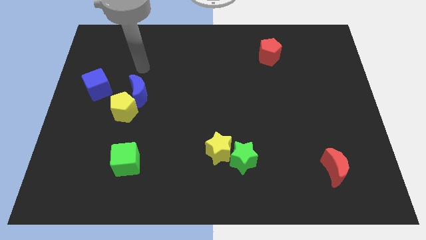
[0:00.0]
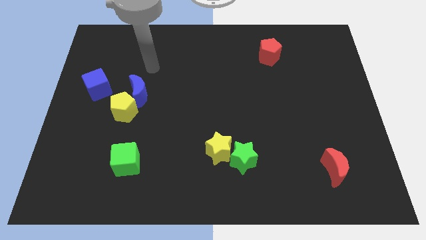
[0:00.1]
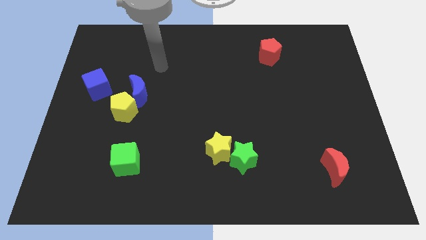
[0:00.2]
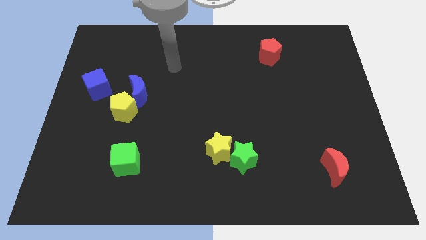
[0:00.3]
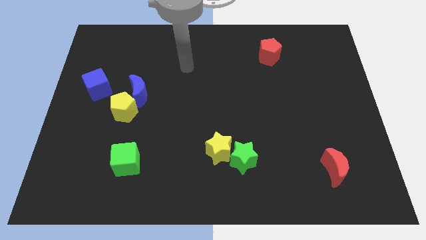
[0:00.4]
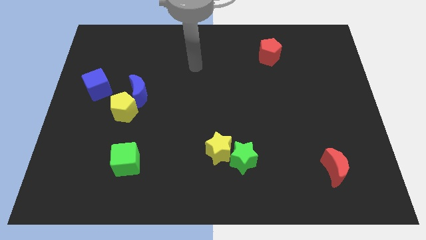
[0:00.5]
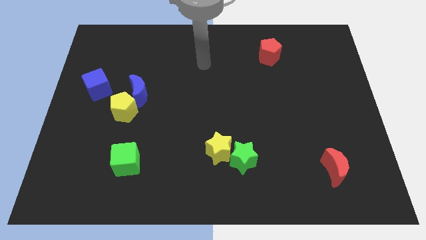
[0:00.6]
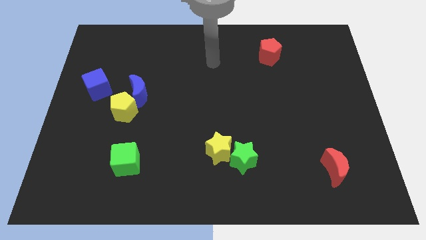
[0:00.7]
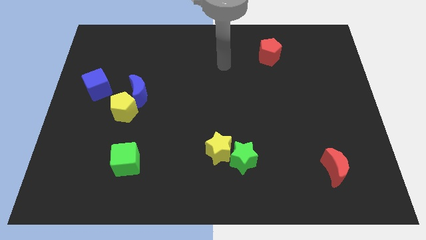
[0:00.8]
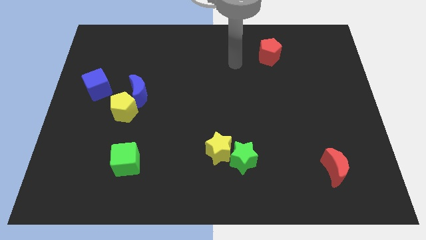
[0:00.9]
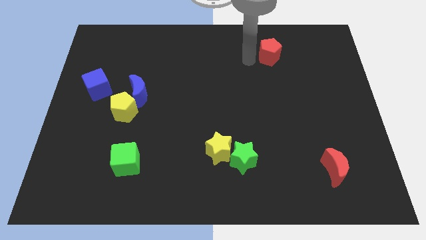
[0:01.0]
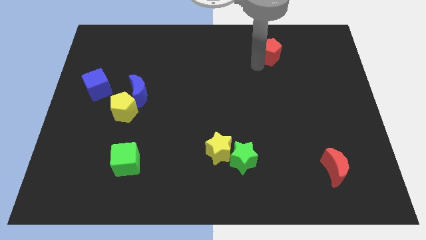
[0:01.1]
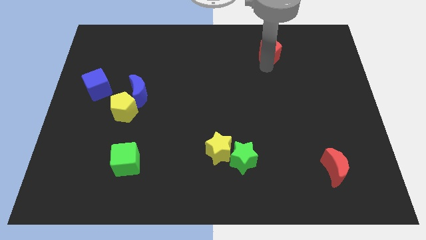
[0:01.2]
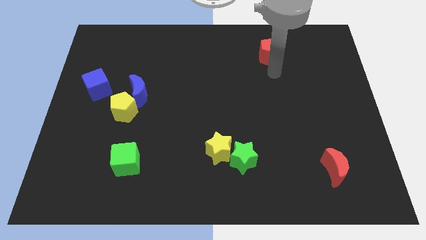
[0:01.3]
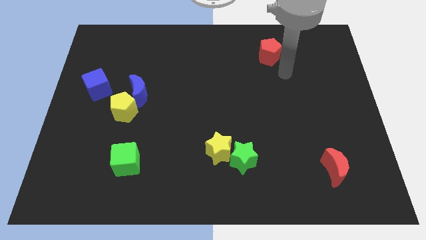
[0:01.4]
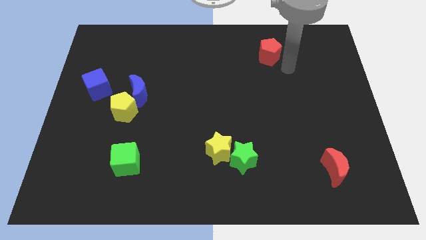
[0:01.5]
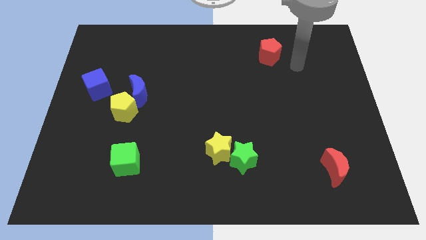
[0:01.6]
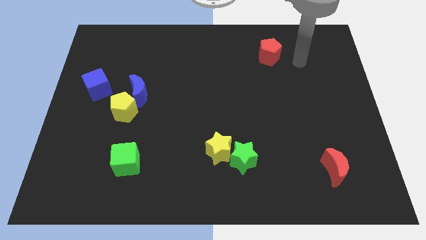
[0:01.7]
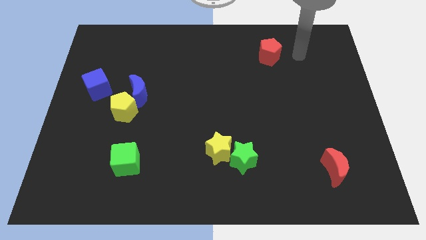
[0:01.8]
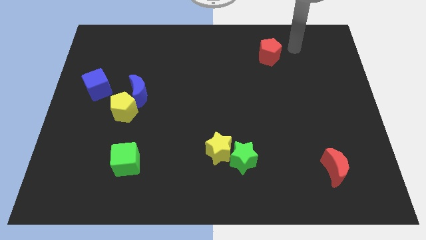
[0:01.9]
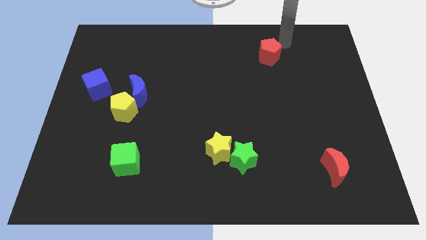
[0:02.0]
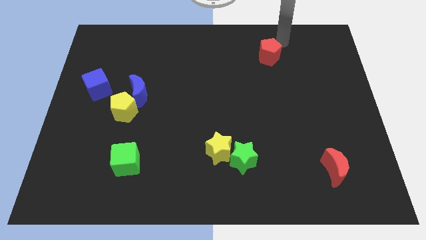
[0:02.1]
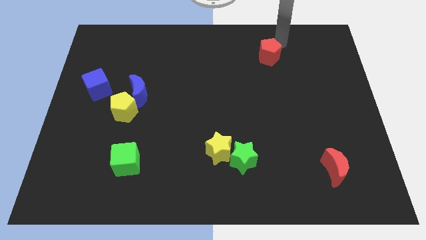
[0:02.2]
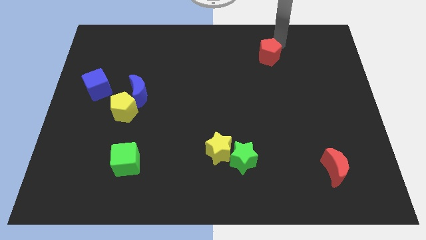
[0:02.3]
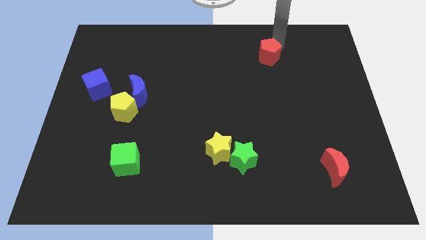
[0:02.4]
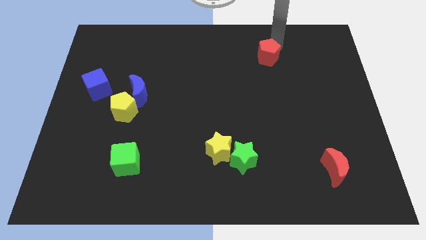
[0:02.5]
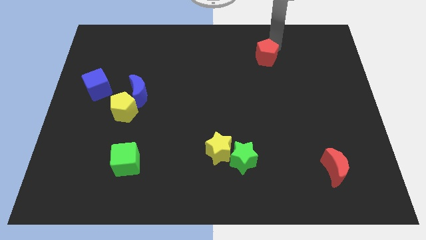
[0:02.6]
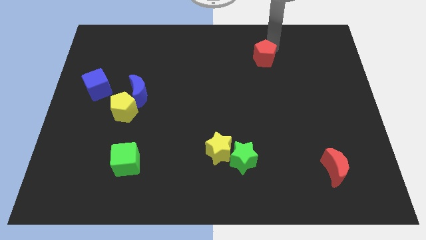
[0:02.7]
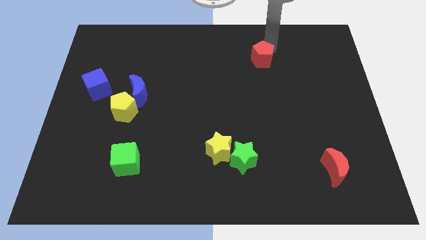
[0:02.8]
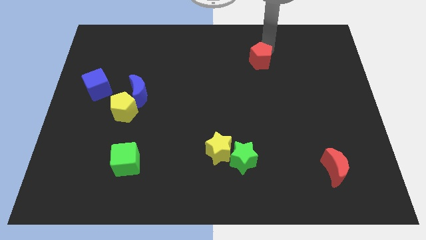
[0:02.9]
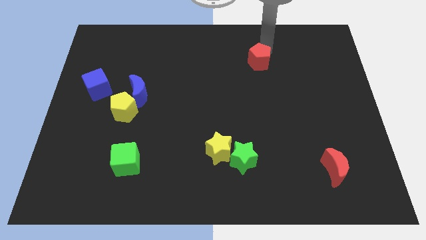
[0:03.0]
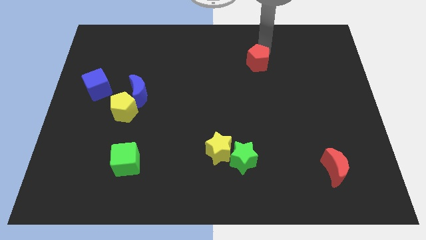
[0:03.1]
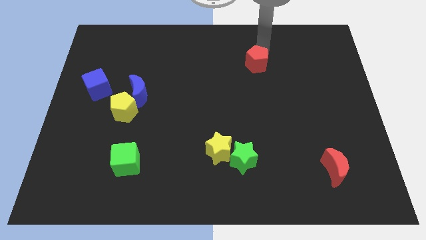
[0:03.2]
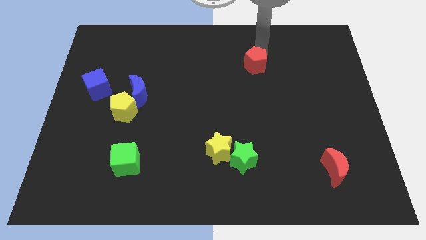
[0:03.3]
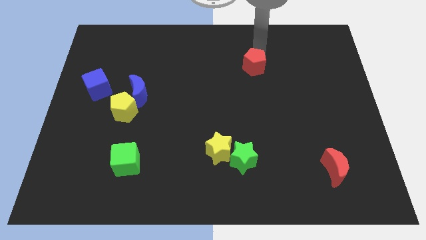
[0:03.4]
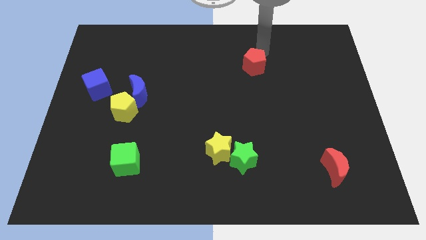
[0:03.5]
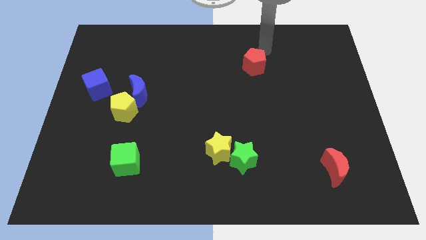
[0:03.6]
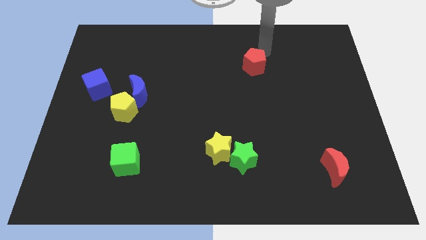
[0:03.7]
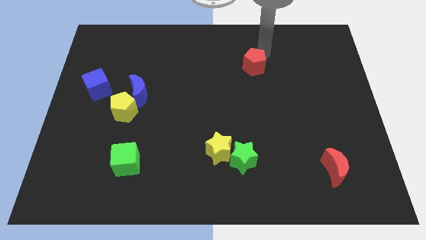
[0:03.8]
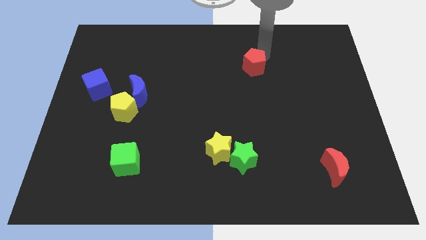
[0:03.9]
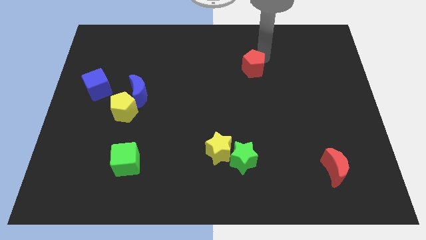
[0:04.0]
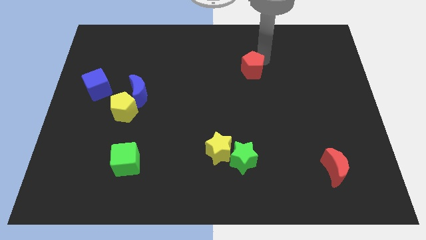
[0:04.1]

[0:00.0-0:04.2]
slightly push the red pentagon downwards and left

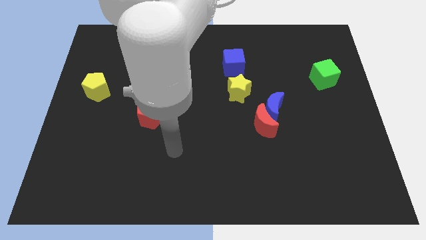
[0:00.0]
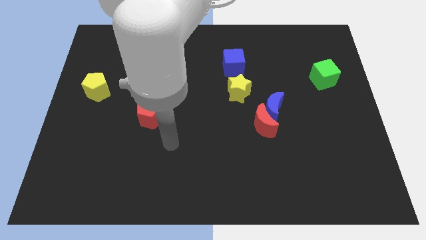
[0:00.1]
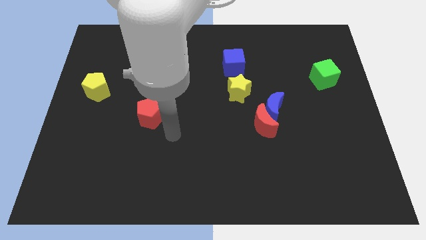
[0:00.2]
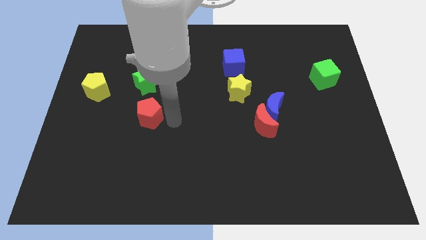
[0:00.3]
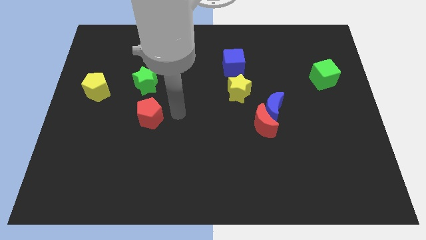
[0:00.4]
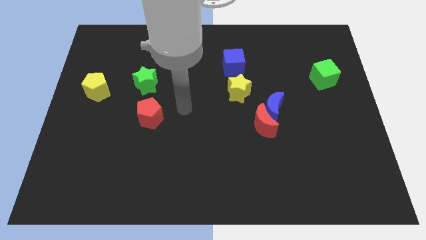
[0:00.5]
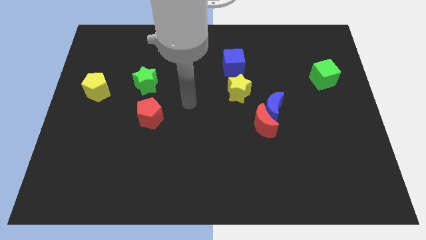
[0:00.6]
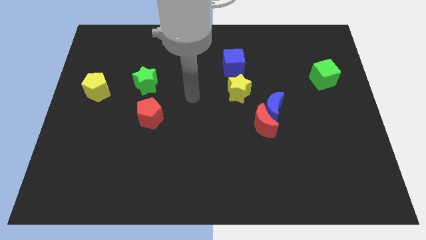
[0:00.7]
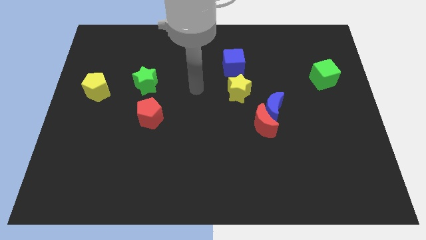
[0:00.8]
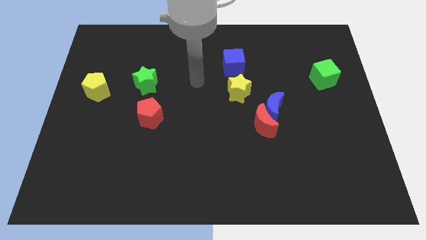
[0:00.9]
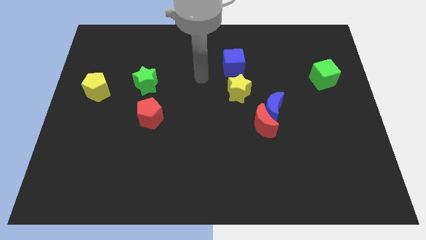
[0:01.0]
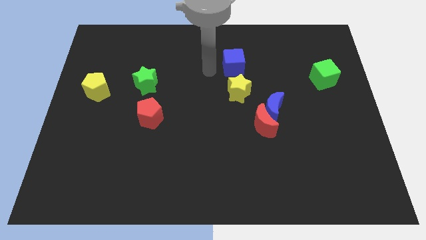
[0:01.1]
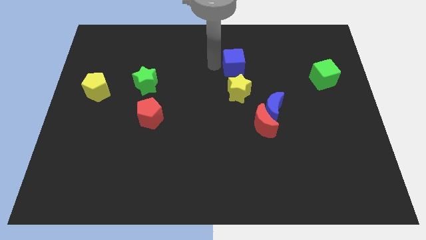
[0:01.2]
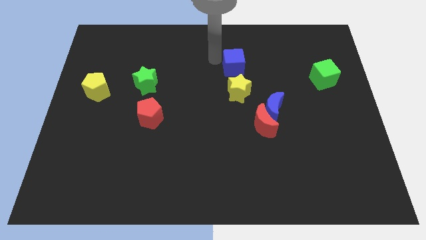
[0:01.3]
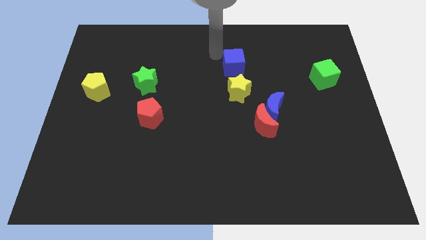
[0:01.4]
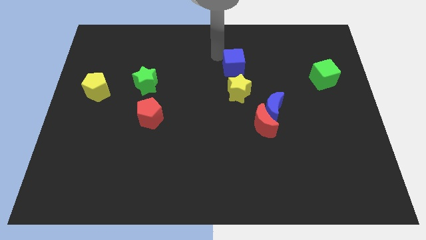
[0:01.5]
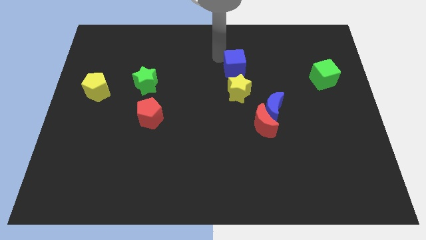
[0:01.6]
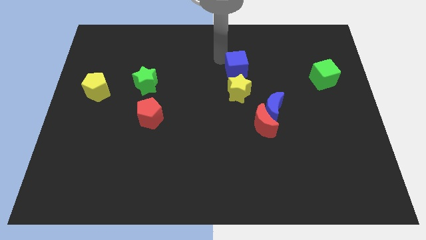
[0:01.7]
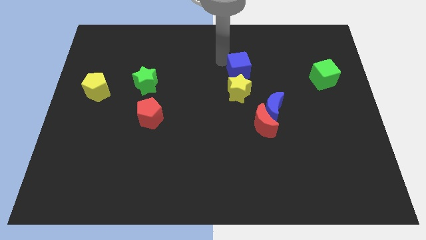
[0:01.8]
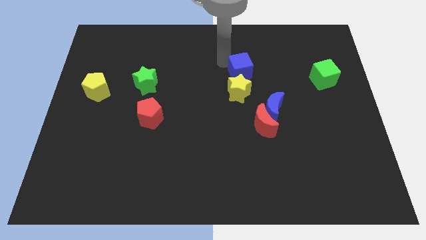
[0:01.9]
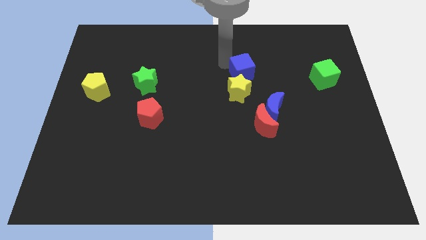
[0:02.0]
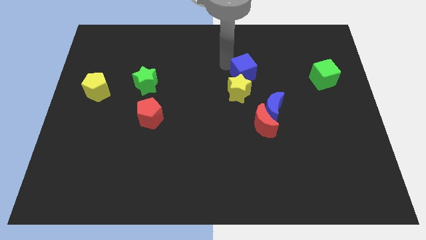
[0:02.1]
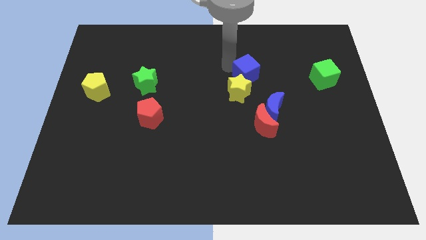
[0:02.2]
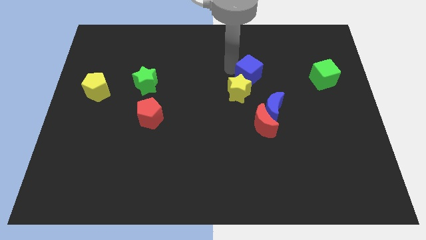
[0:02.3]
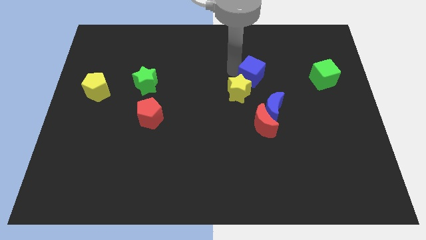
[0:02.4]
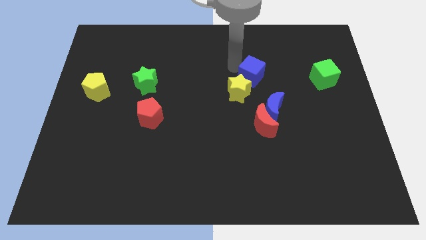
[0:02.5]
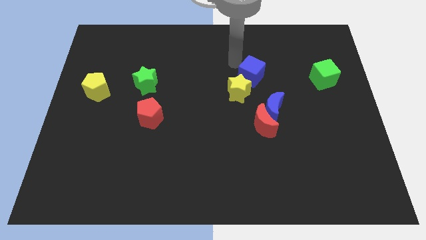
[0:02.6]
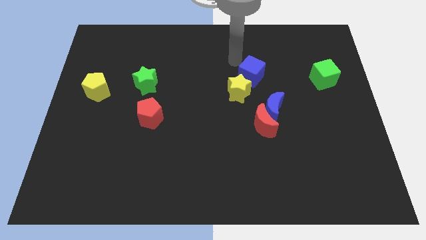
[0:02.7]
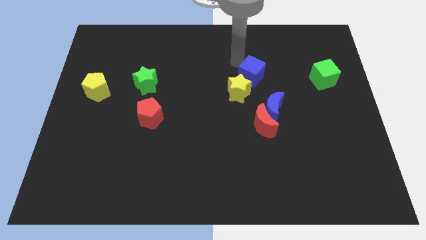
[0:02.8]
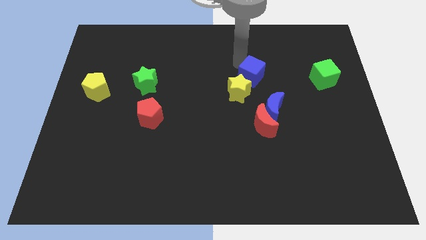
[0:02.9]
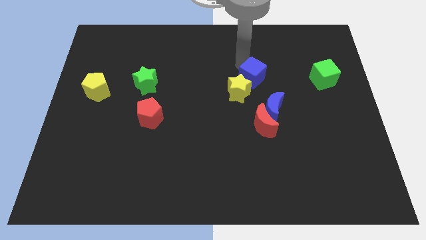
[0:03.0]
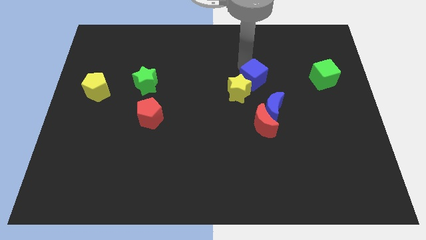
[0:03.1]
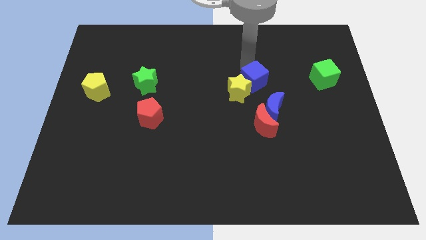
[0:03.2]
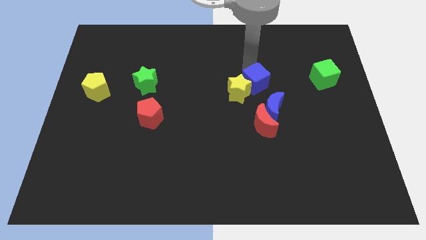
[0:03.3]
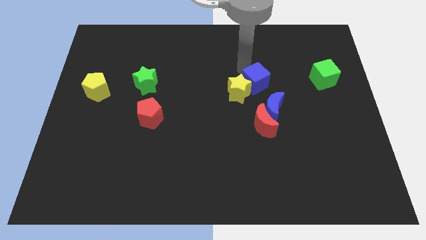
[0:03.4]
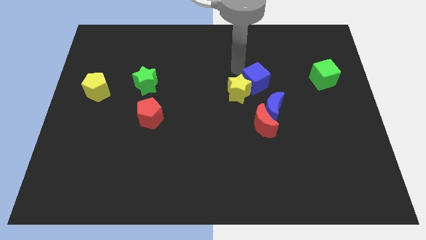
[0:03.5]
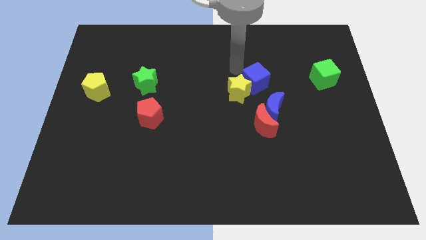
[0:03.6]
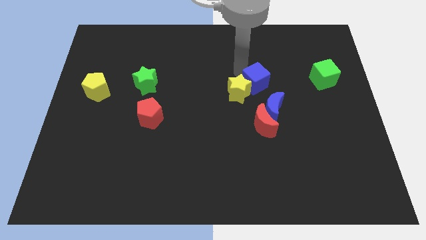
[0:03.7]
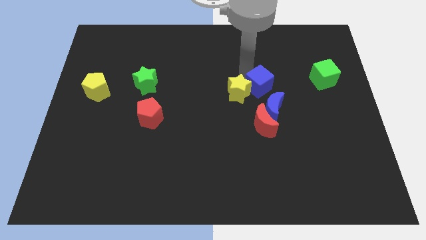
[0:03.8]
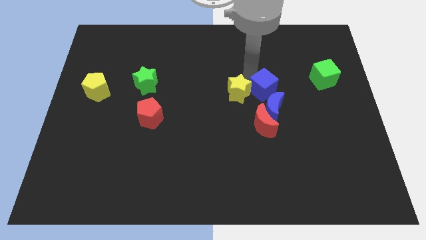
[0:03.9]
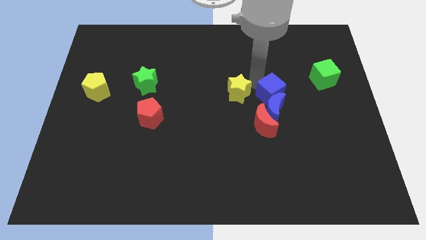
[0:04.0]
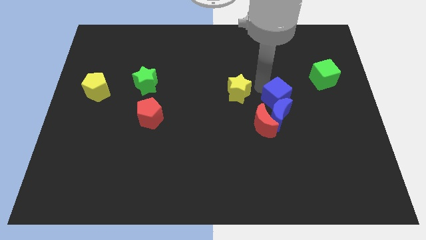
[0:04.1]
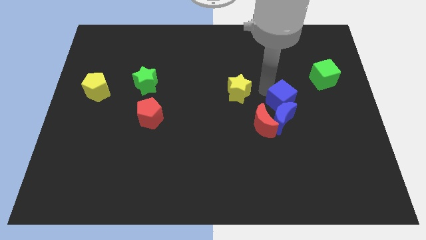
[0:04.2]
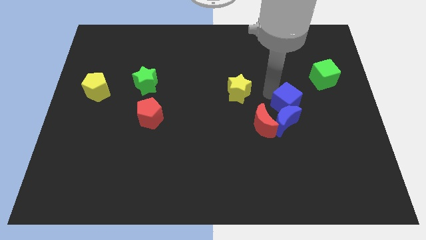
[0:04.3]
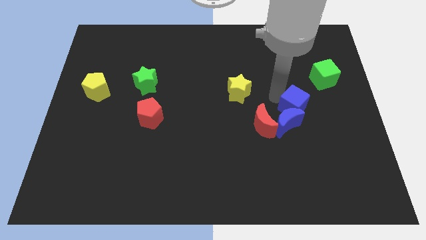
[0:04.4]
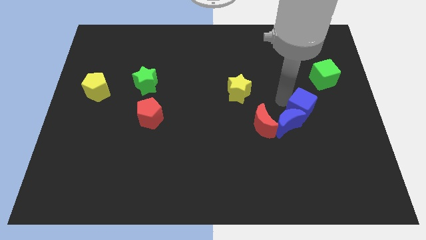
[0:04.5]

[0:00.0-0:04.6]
slide the blue cube diagonally downwards and right
